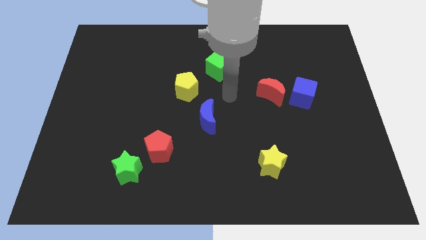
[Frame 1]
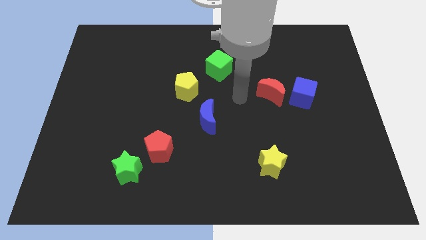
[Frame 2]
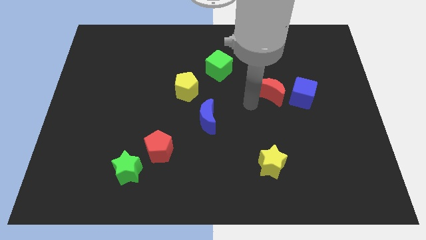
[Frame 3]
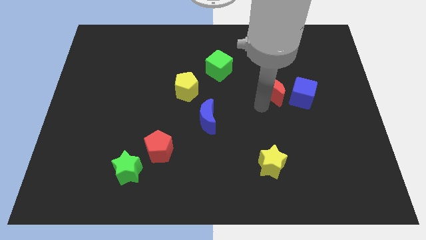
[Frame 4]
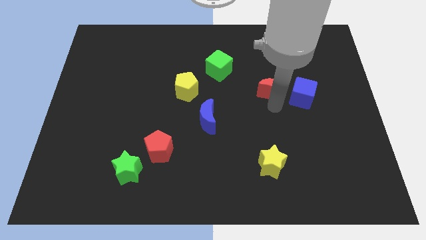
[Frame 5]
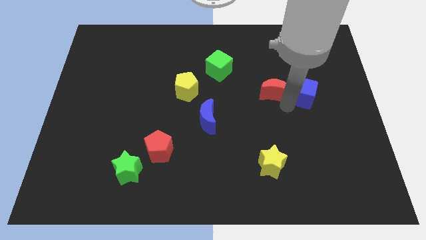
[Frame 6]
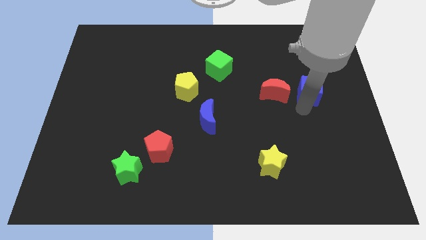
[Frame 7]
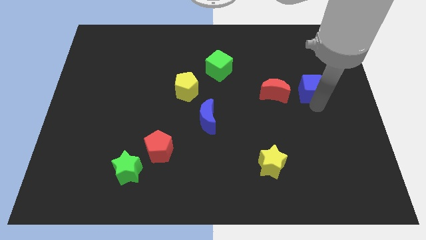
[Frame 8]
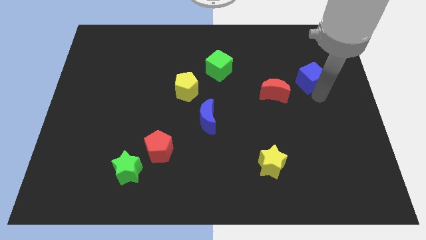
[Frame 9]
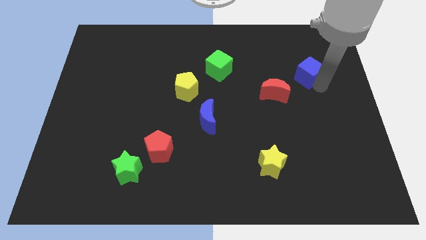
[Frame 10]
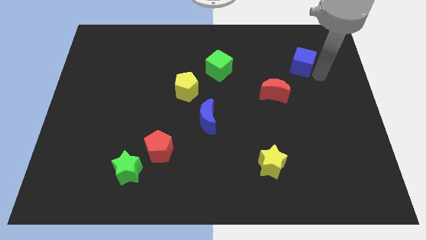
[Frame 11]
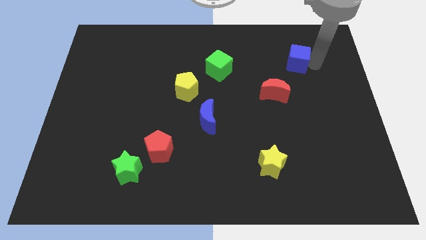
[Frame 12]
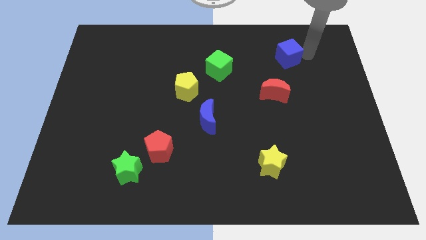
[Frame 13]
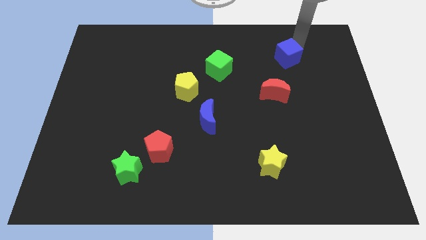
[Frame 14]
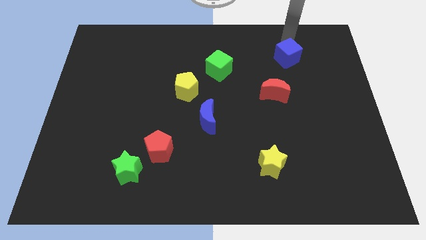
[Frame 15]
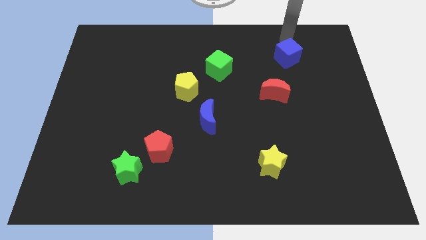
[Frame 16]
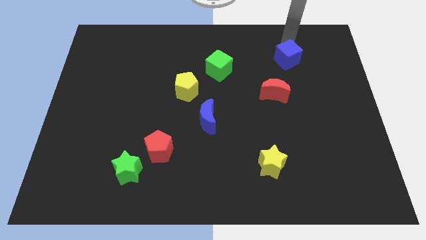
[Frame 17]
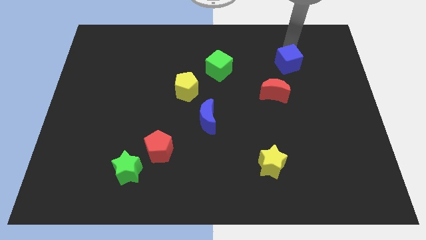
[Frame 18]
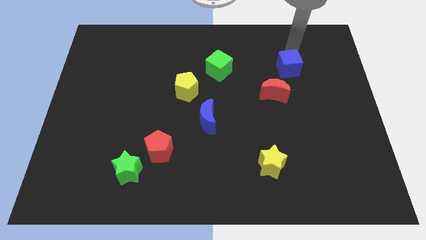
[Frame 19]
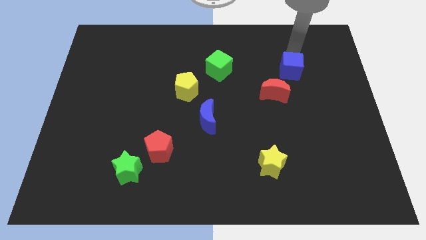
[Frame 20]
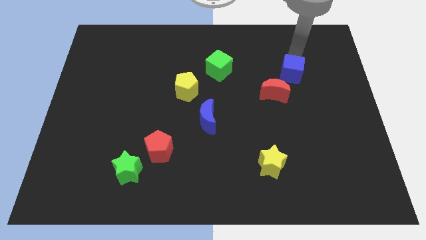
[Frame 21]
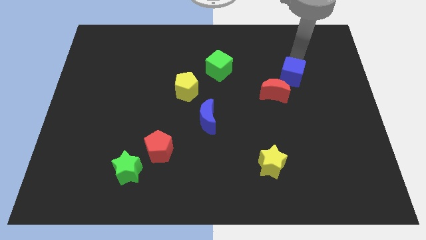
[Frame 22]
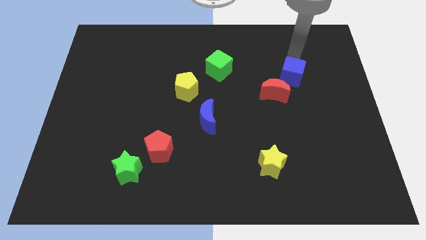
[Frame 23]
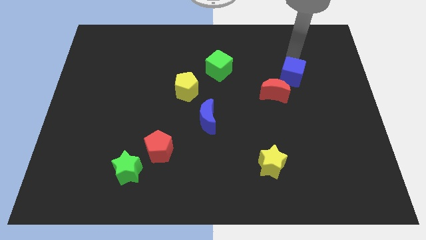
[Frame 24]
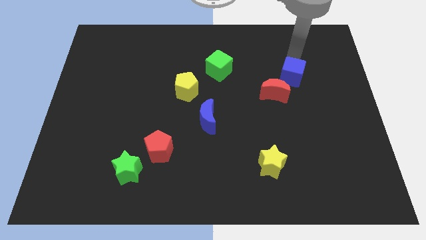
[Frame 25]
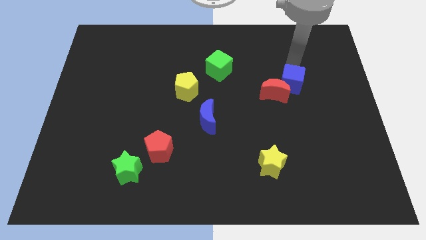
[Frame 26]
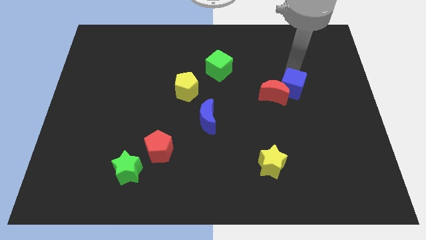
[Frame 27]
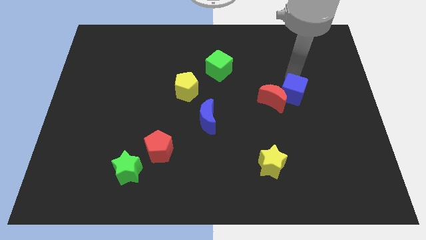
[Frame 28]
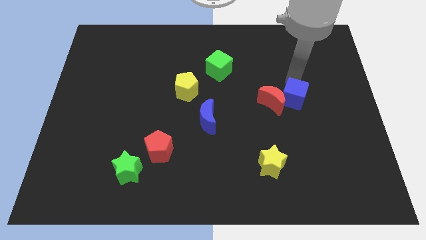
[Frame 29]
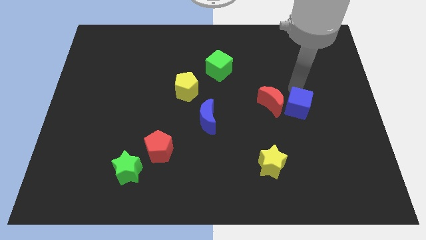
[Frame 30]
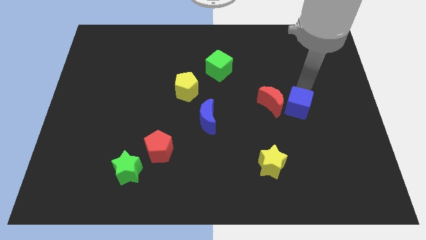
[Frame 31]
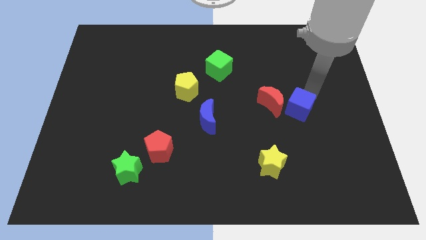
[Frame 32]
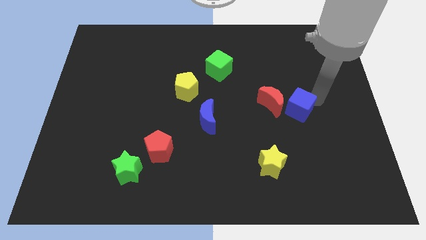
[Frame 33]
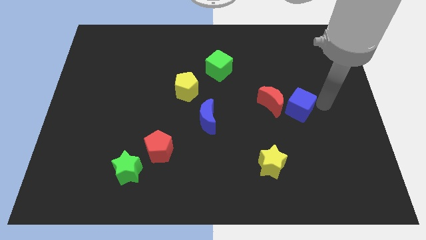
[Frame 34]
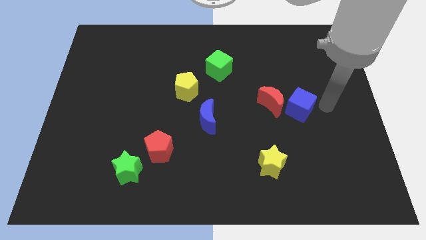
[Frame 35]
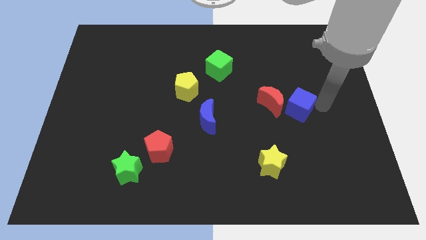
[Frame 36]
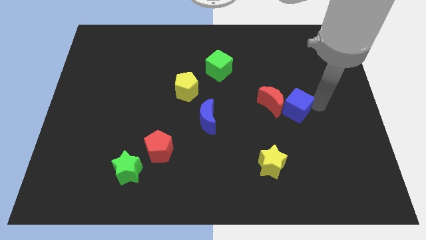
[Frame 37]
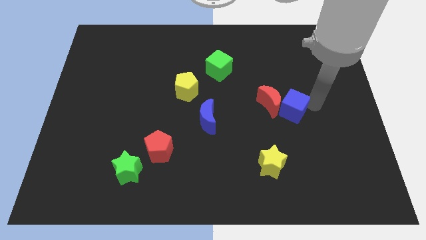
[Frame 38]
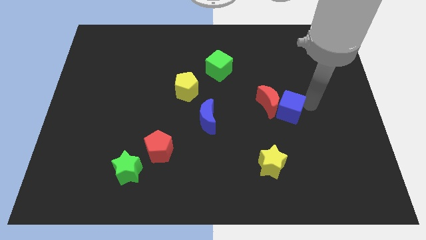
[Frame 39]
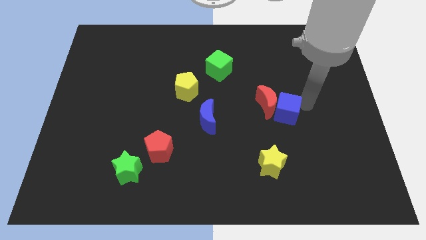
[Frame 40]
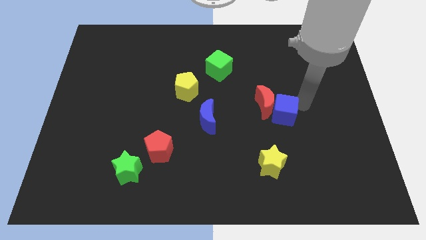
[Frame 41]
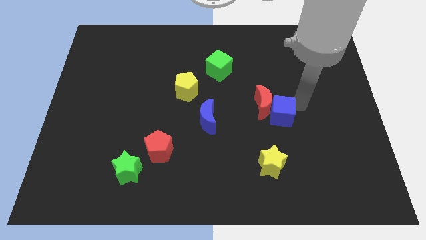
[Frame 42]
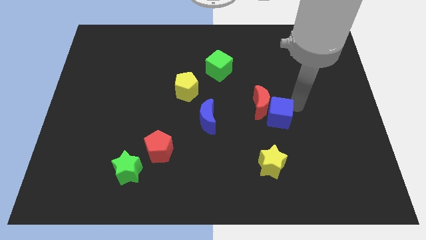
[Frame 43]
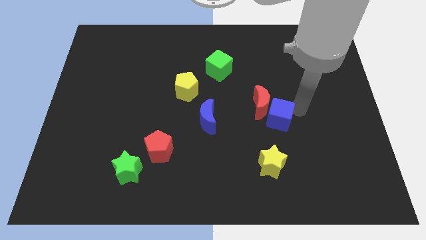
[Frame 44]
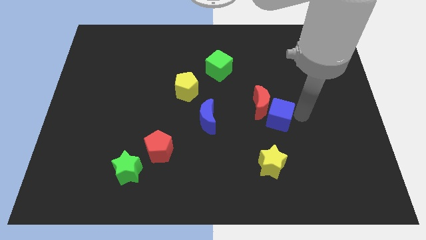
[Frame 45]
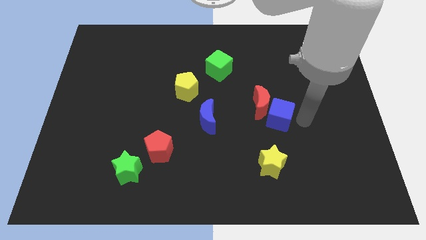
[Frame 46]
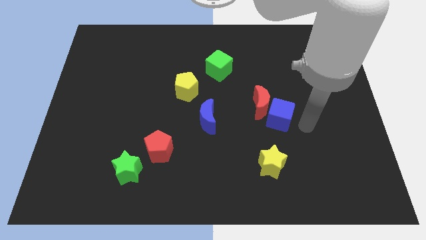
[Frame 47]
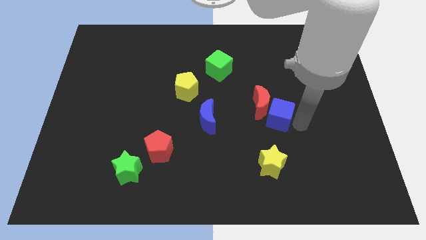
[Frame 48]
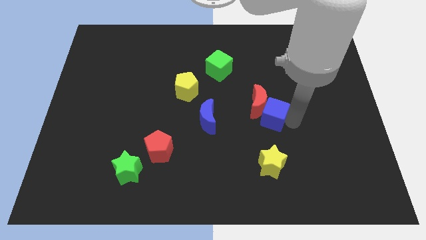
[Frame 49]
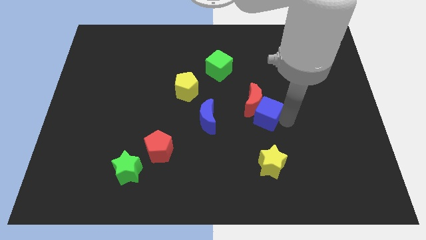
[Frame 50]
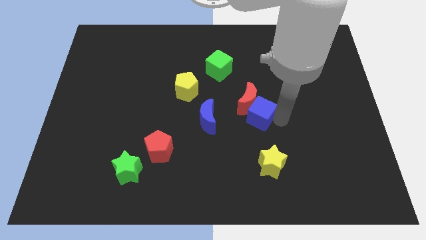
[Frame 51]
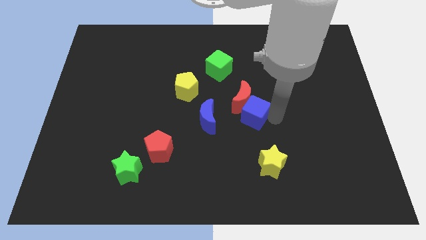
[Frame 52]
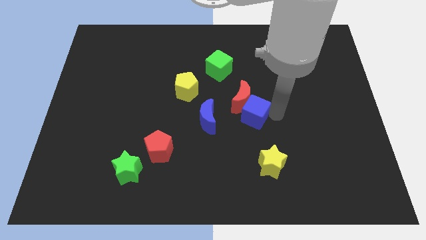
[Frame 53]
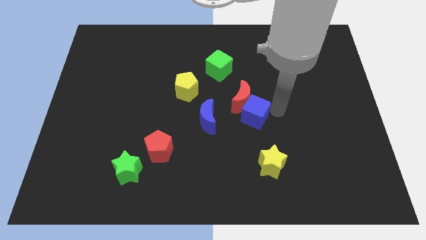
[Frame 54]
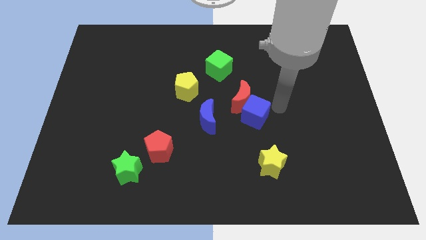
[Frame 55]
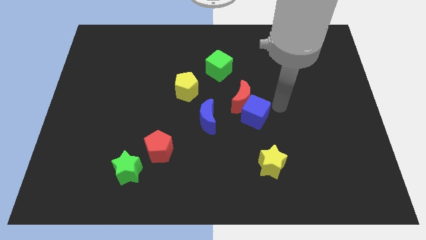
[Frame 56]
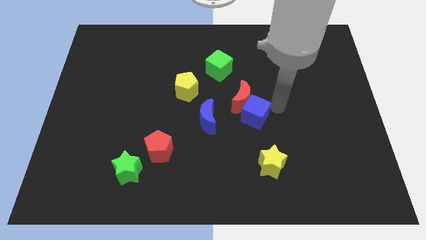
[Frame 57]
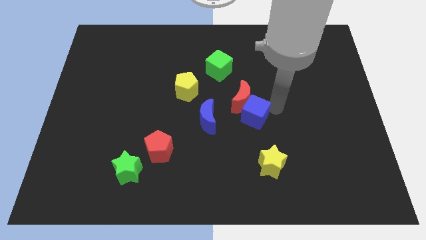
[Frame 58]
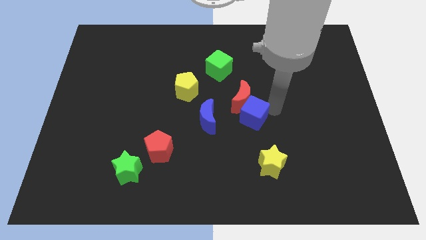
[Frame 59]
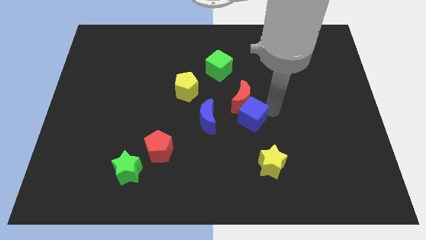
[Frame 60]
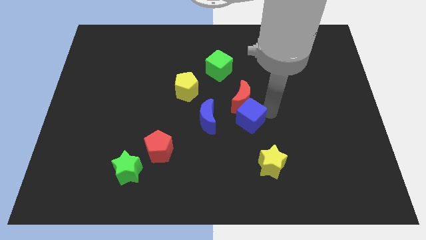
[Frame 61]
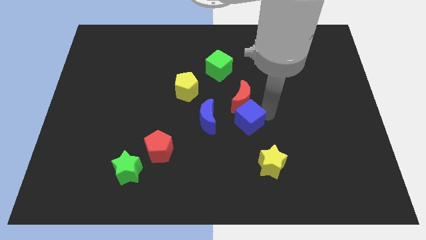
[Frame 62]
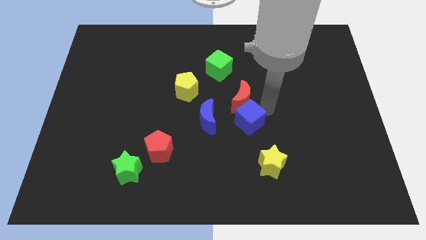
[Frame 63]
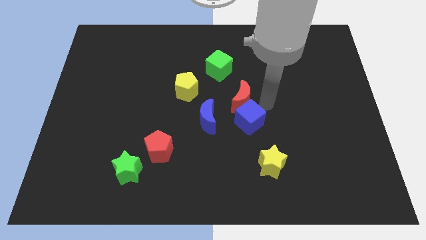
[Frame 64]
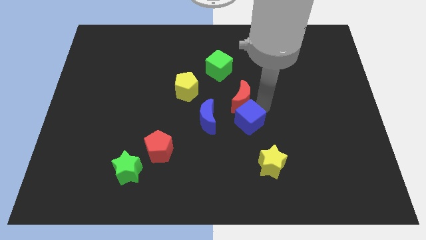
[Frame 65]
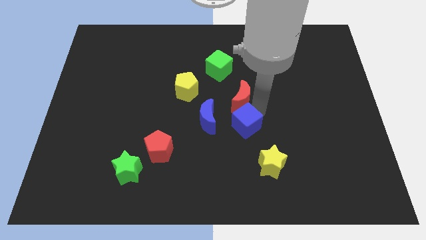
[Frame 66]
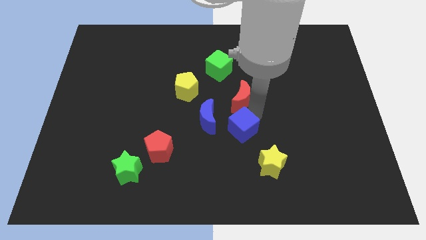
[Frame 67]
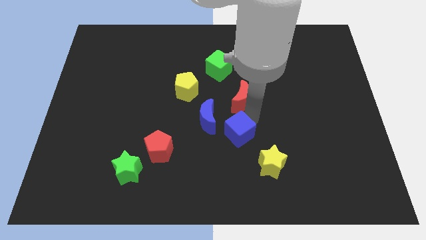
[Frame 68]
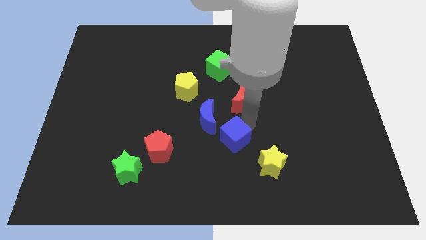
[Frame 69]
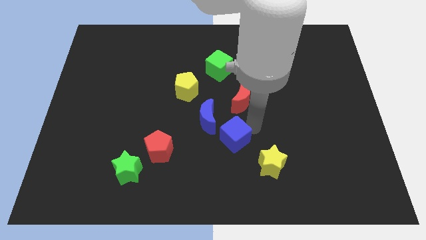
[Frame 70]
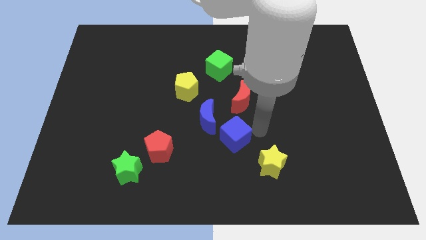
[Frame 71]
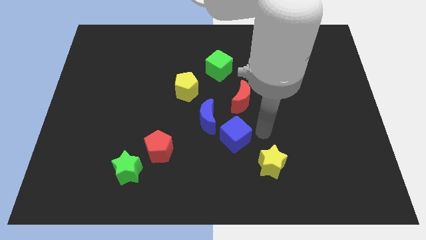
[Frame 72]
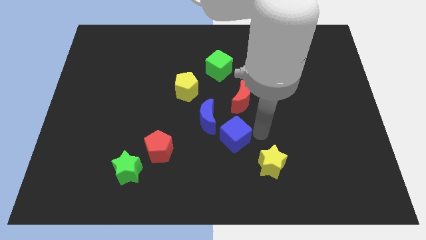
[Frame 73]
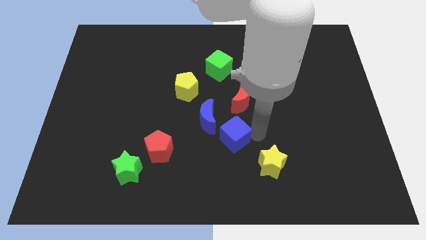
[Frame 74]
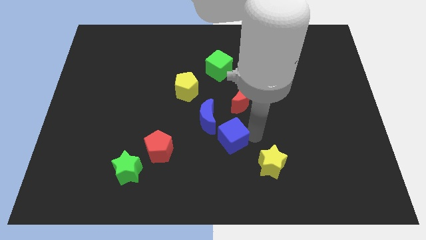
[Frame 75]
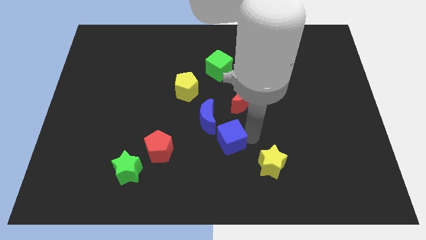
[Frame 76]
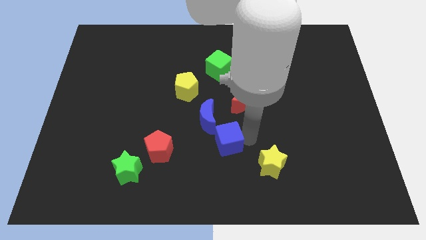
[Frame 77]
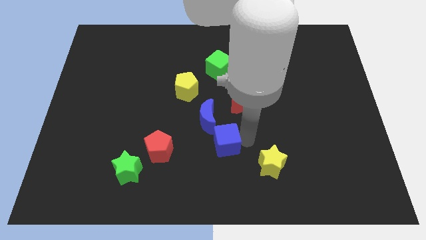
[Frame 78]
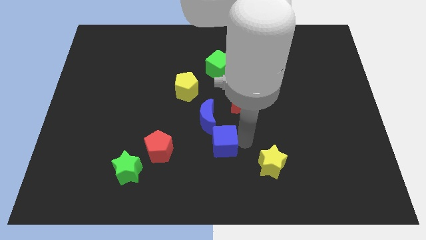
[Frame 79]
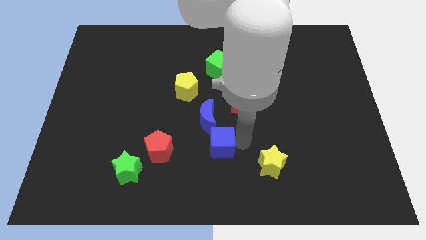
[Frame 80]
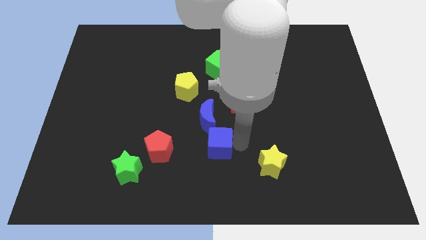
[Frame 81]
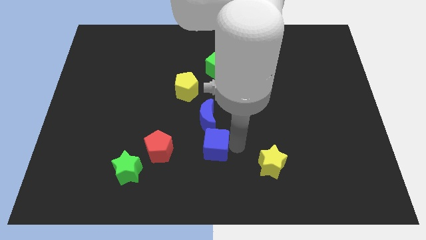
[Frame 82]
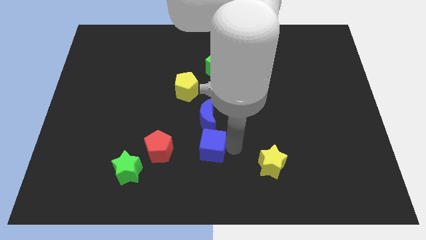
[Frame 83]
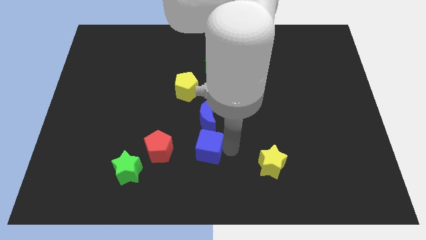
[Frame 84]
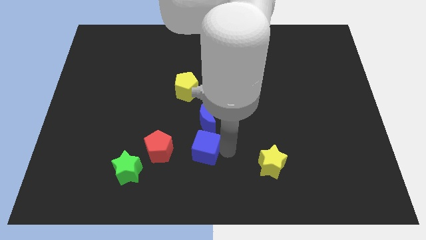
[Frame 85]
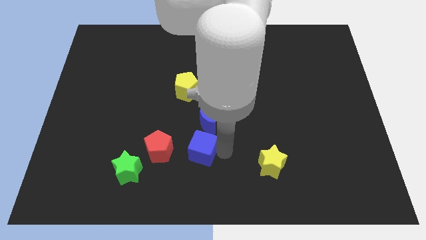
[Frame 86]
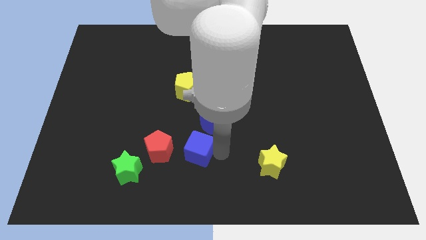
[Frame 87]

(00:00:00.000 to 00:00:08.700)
move the blue cube to the bottom left side of the blue moon
